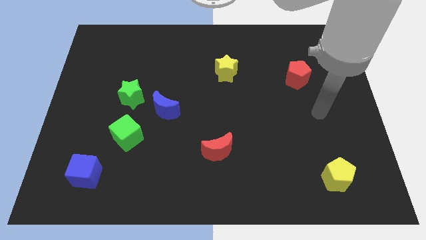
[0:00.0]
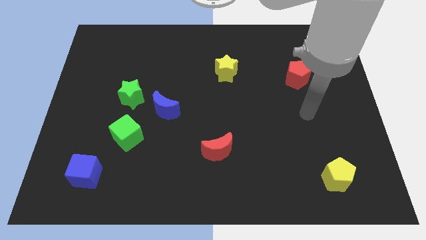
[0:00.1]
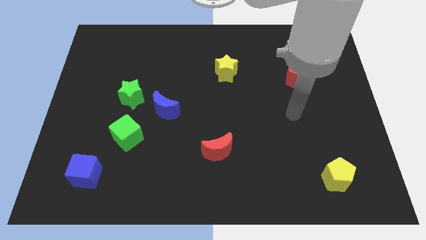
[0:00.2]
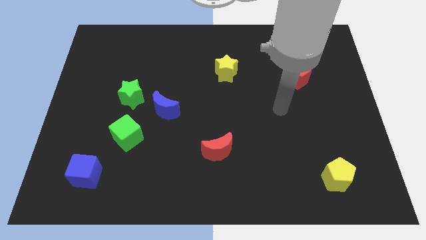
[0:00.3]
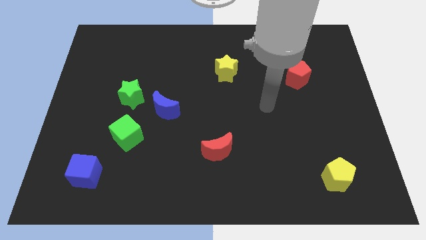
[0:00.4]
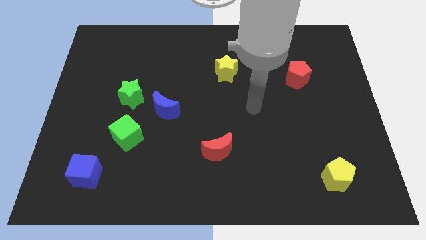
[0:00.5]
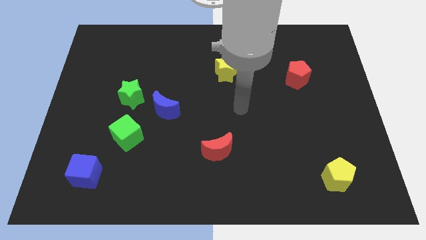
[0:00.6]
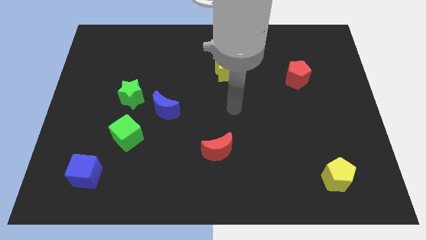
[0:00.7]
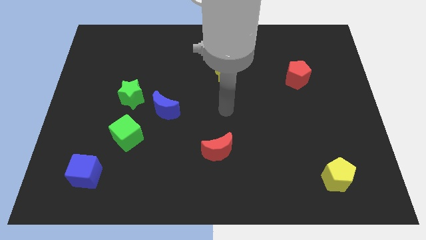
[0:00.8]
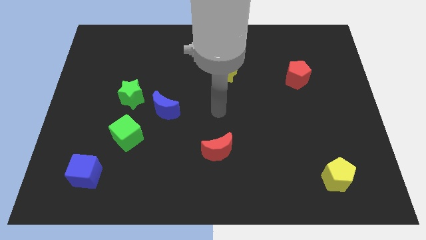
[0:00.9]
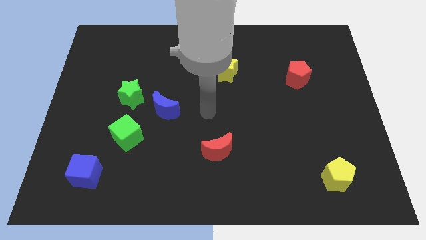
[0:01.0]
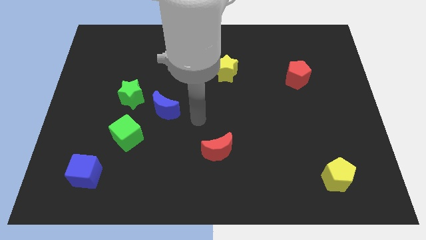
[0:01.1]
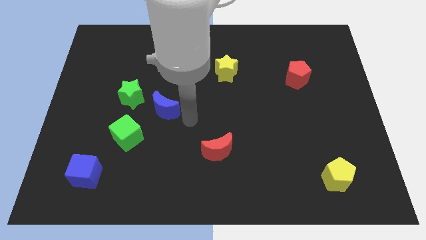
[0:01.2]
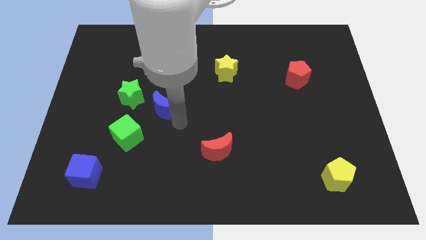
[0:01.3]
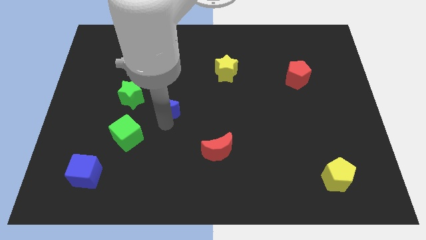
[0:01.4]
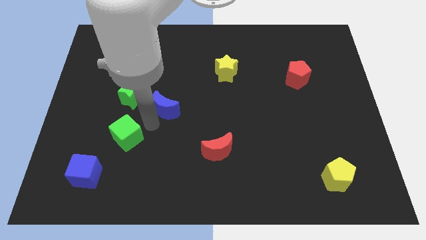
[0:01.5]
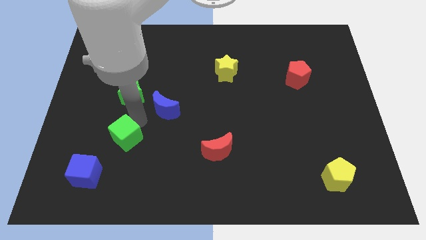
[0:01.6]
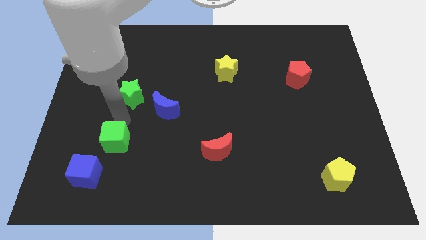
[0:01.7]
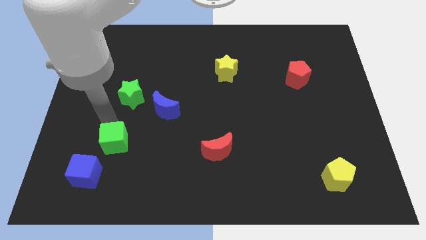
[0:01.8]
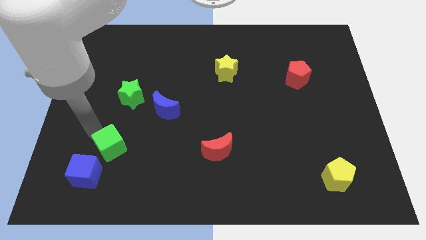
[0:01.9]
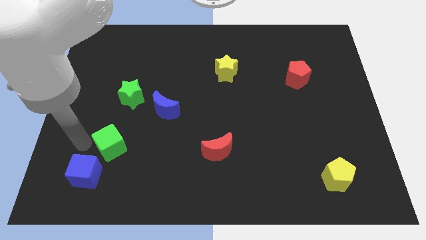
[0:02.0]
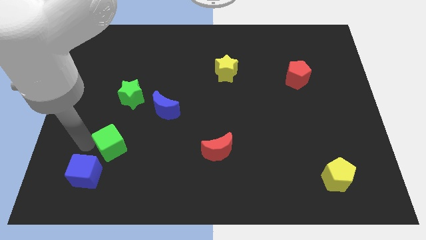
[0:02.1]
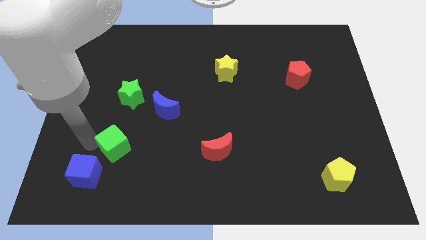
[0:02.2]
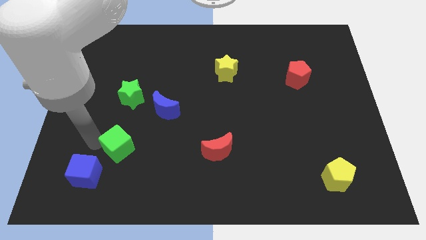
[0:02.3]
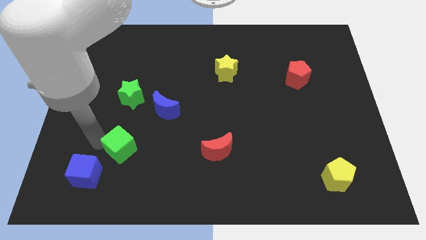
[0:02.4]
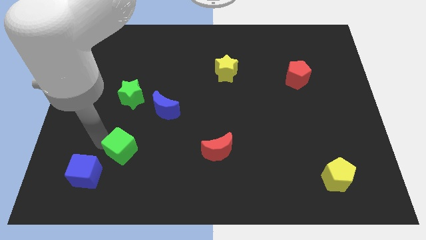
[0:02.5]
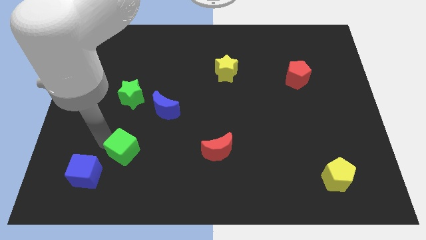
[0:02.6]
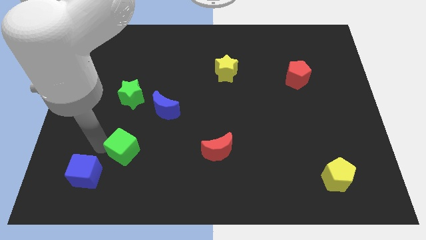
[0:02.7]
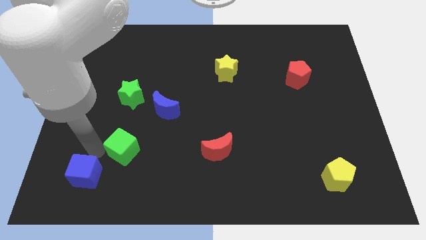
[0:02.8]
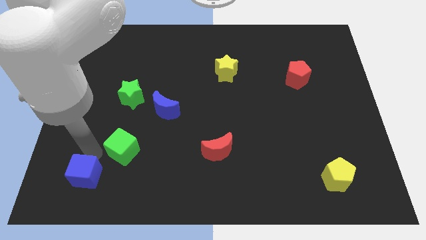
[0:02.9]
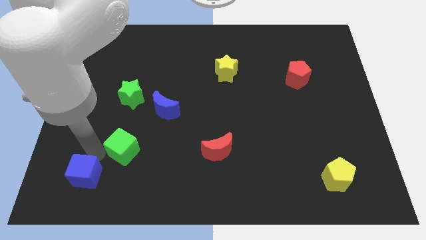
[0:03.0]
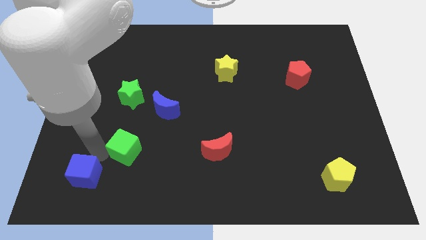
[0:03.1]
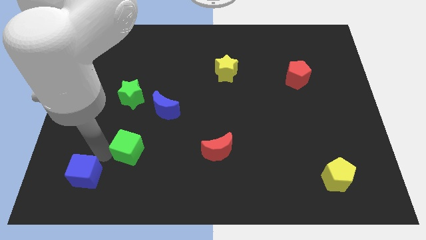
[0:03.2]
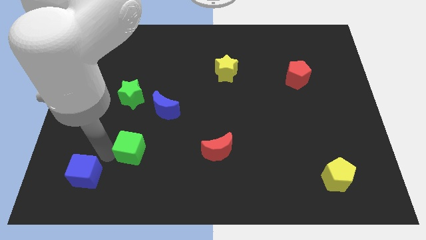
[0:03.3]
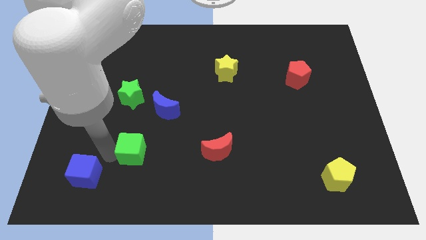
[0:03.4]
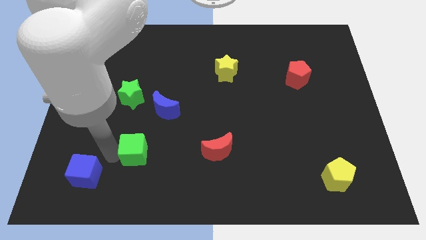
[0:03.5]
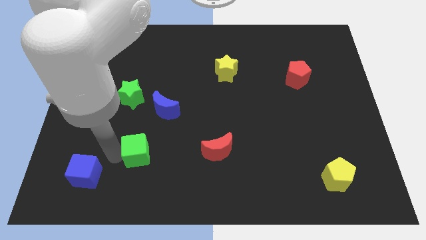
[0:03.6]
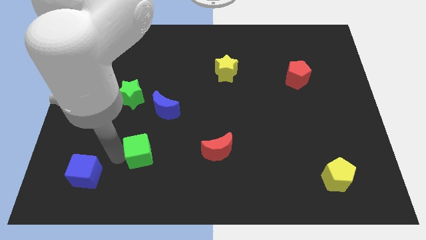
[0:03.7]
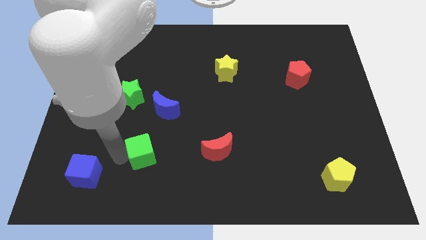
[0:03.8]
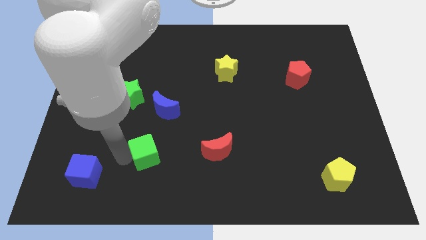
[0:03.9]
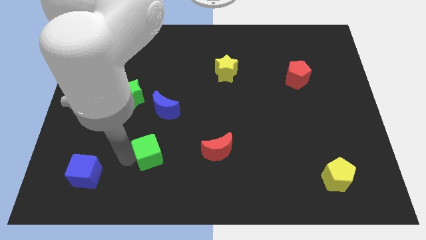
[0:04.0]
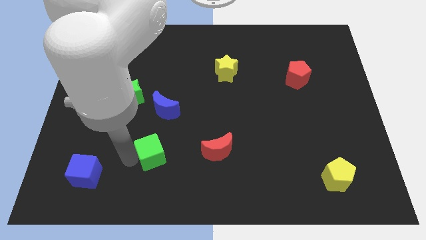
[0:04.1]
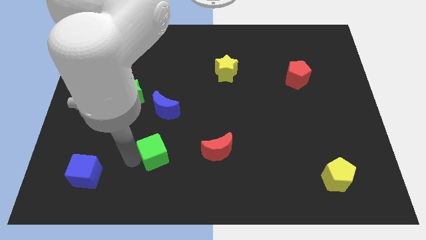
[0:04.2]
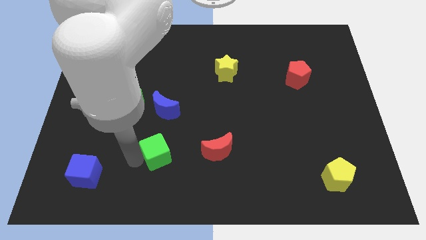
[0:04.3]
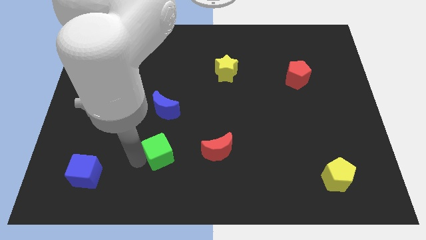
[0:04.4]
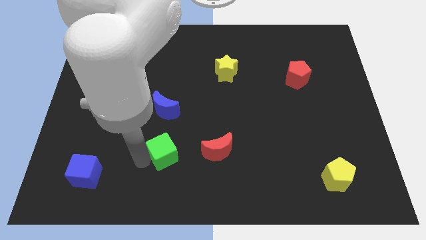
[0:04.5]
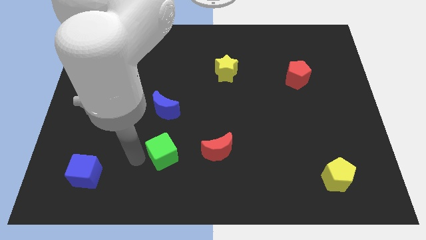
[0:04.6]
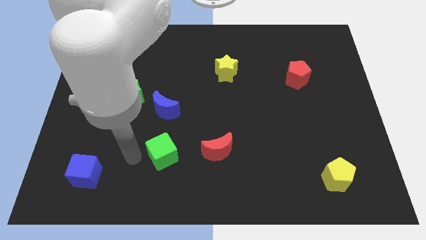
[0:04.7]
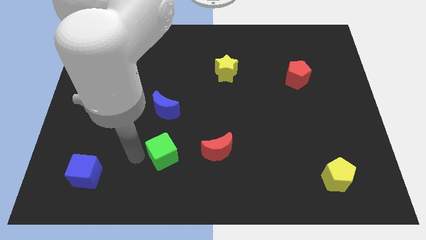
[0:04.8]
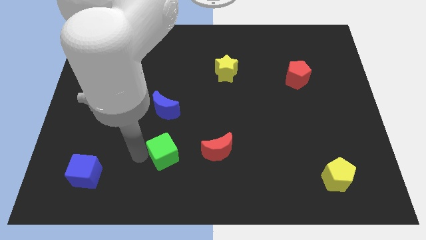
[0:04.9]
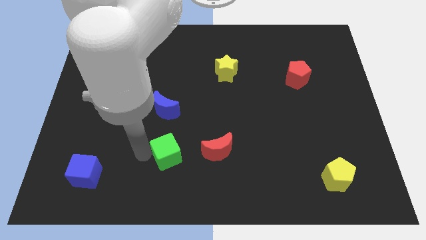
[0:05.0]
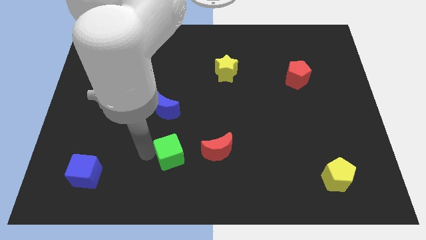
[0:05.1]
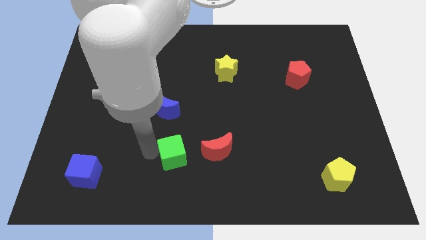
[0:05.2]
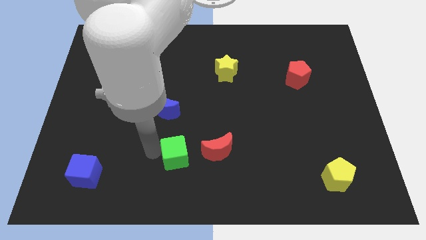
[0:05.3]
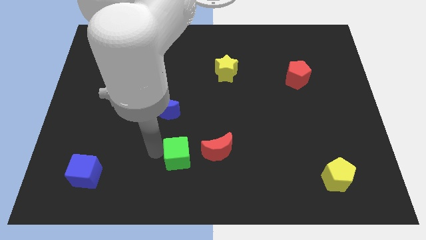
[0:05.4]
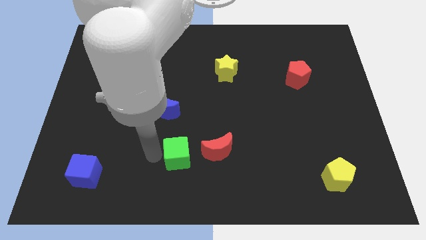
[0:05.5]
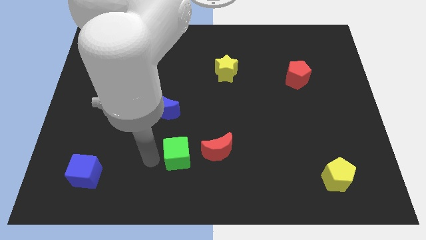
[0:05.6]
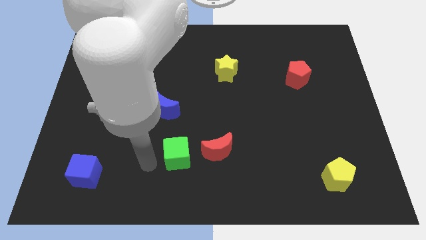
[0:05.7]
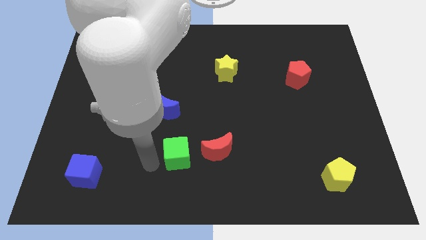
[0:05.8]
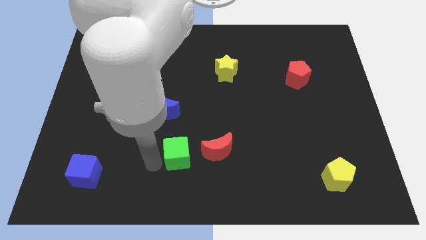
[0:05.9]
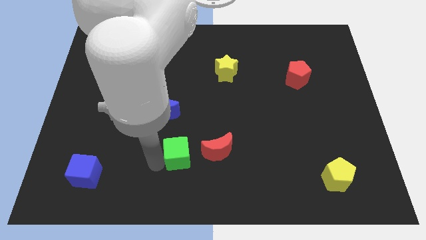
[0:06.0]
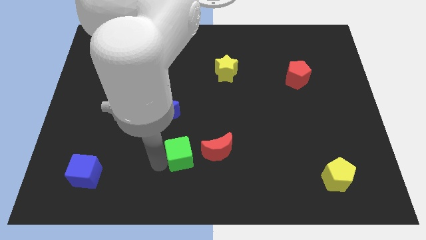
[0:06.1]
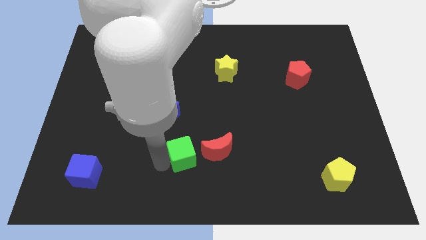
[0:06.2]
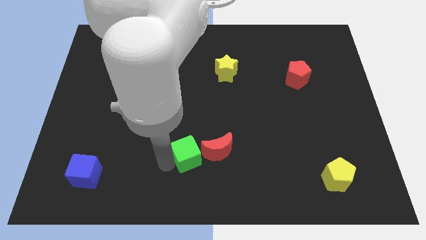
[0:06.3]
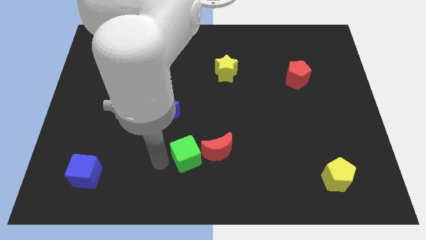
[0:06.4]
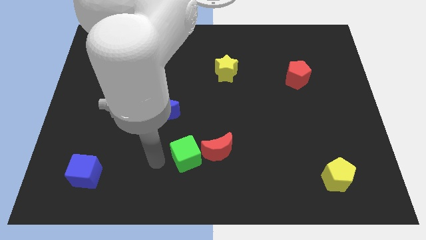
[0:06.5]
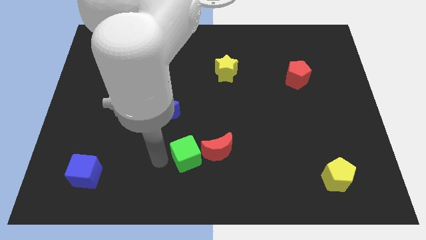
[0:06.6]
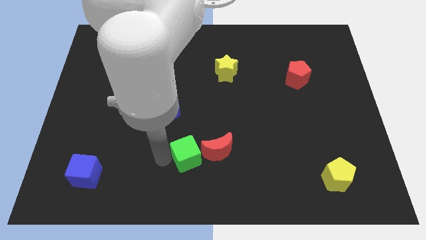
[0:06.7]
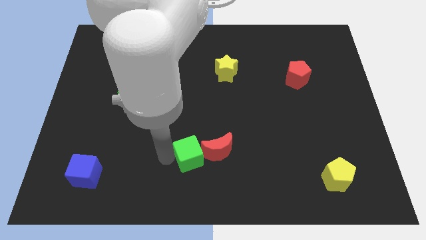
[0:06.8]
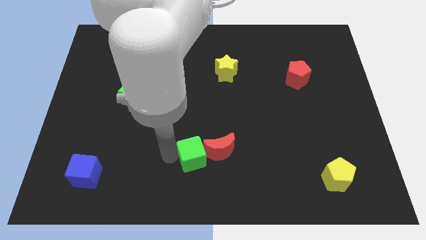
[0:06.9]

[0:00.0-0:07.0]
put the green cube next to the red moon

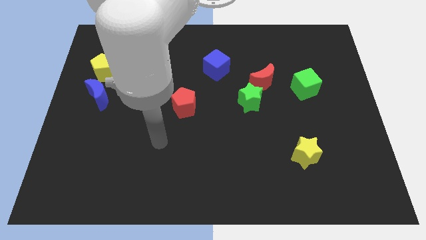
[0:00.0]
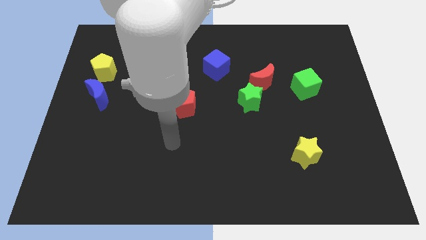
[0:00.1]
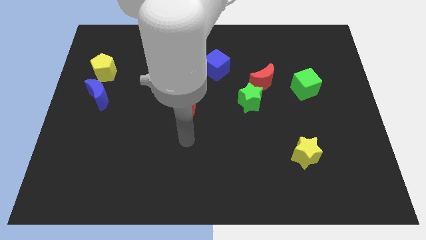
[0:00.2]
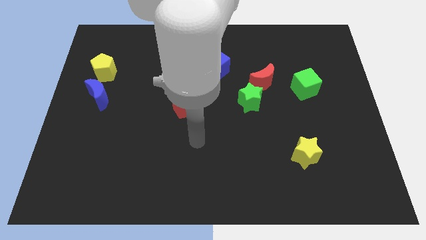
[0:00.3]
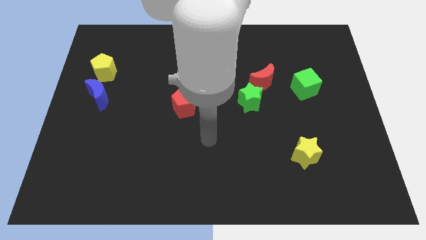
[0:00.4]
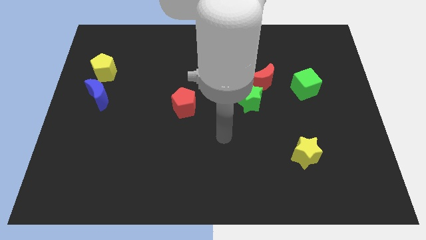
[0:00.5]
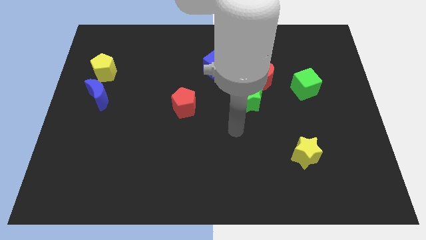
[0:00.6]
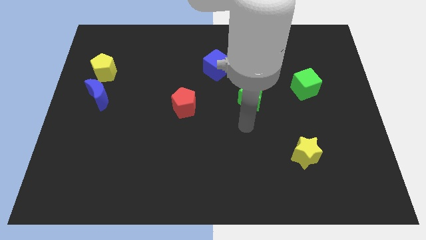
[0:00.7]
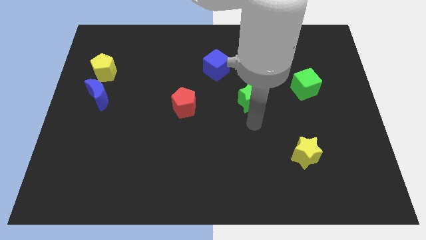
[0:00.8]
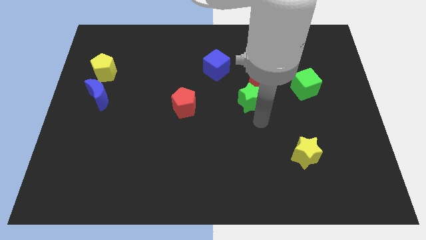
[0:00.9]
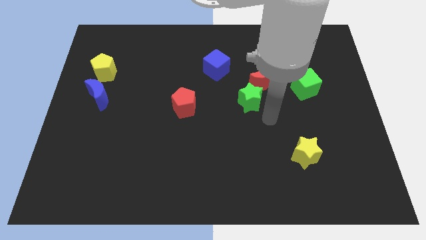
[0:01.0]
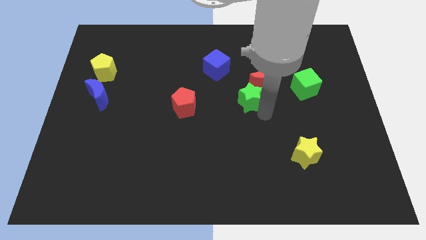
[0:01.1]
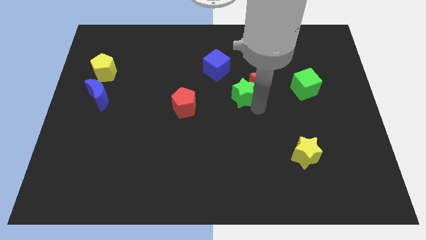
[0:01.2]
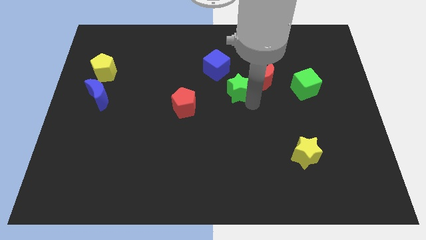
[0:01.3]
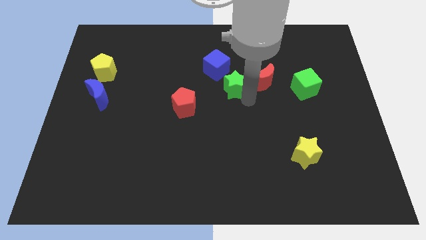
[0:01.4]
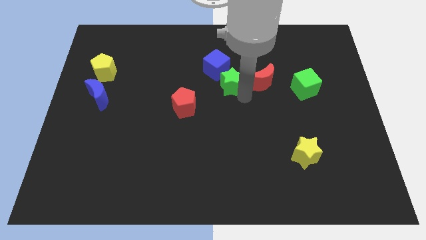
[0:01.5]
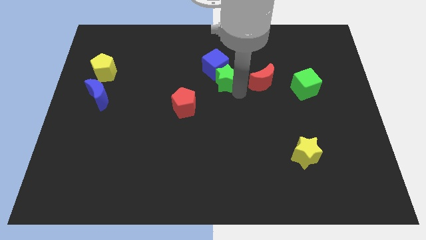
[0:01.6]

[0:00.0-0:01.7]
put the green star towards the blue cube
